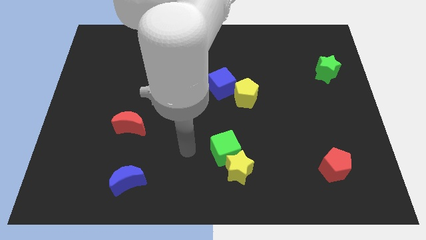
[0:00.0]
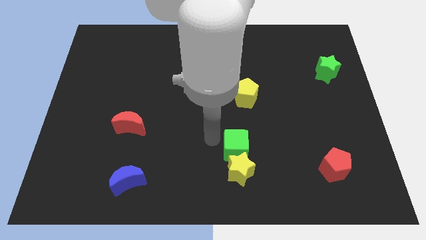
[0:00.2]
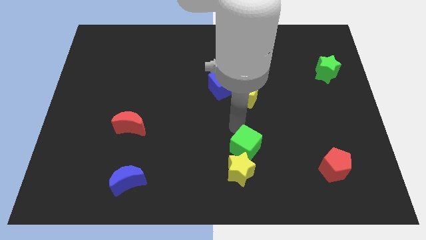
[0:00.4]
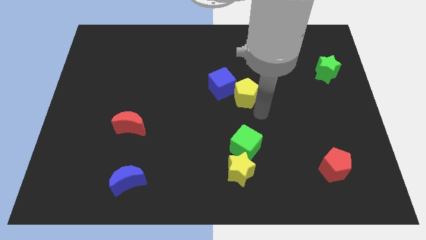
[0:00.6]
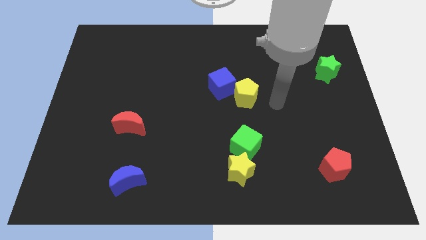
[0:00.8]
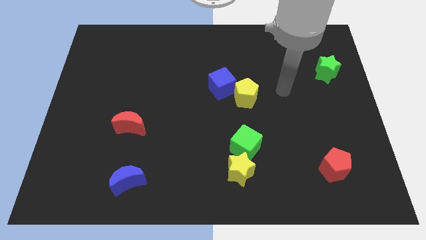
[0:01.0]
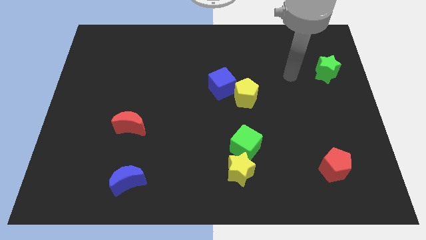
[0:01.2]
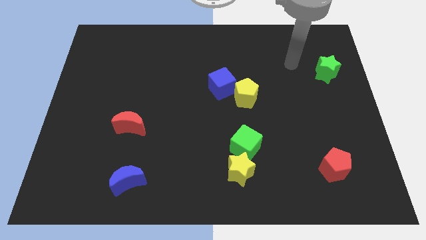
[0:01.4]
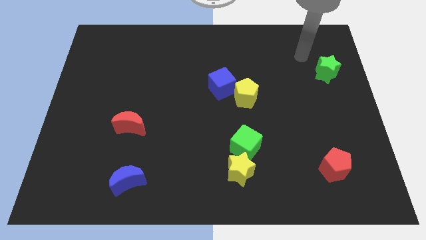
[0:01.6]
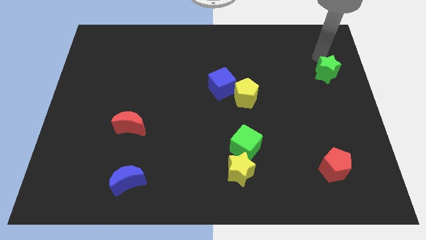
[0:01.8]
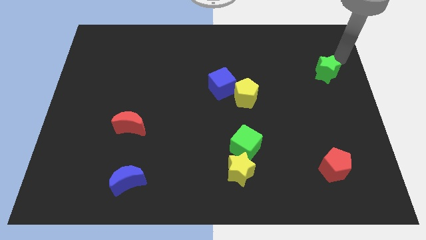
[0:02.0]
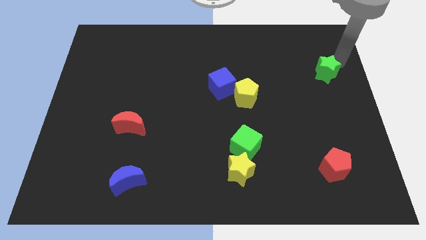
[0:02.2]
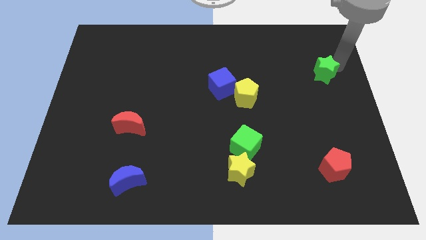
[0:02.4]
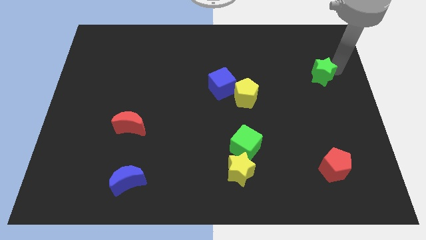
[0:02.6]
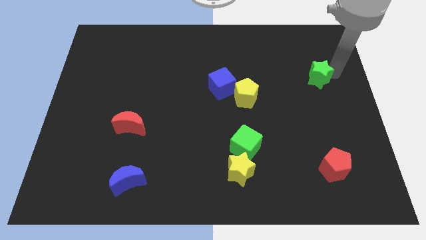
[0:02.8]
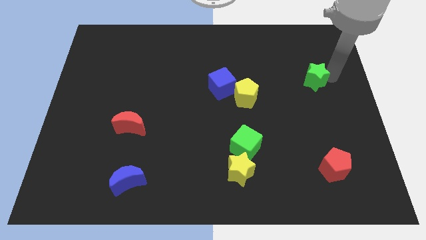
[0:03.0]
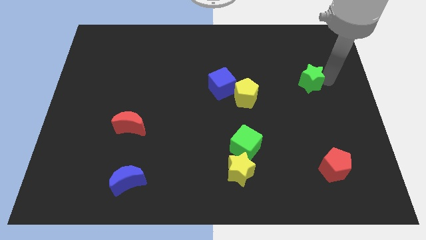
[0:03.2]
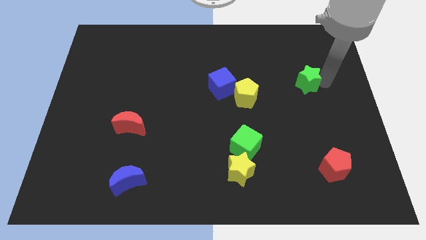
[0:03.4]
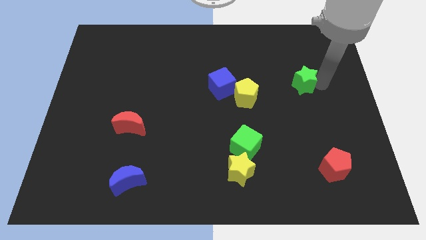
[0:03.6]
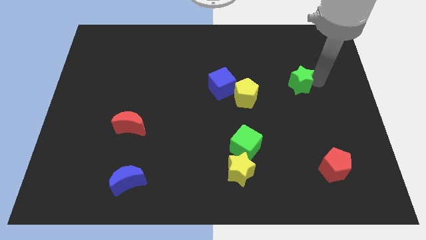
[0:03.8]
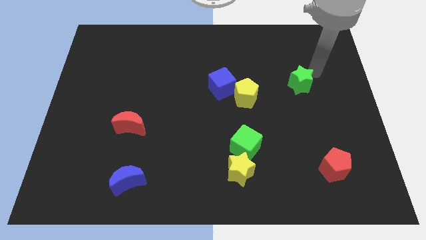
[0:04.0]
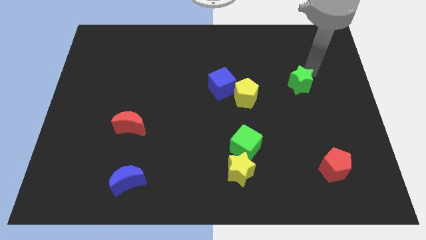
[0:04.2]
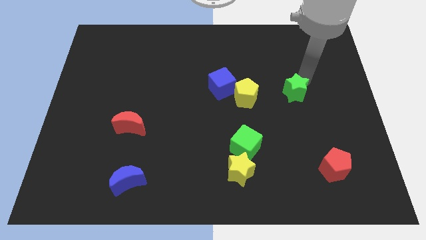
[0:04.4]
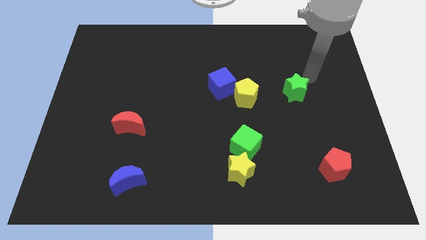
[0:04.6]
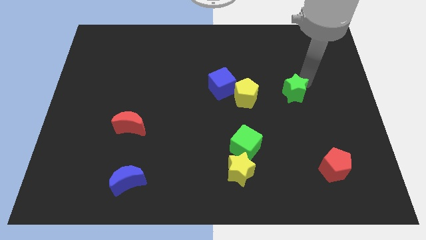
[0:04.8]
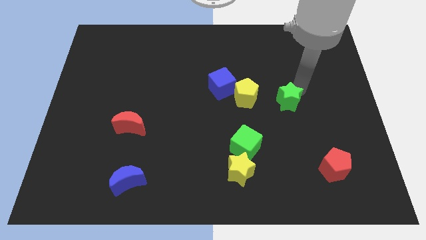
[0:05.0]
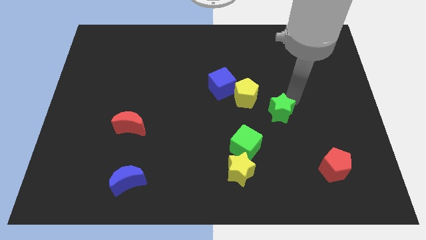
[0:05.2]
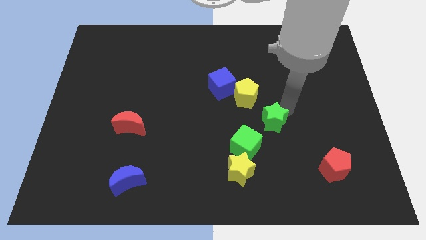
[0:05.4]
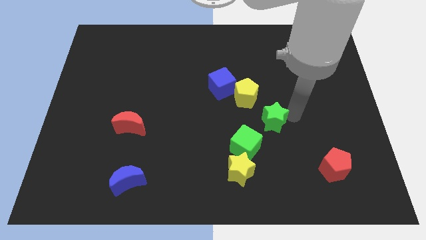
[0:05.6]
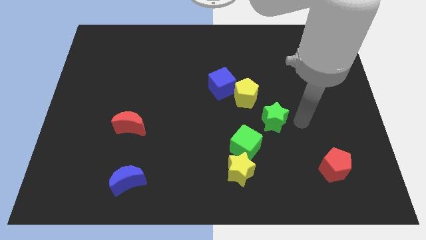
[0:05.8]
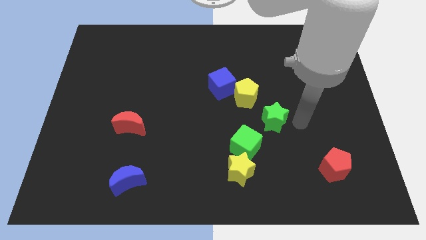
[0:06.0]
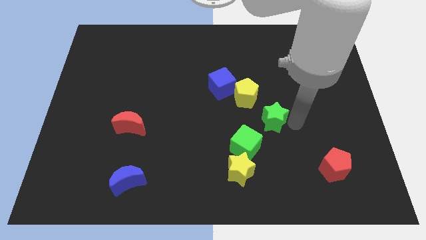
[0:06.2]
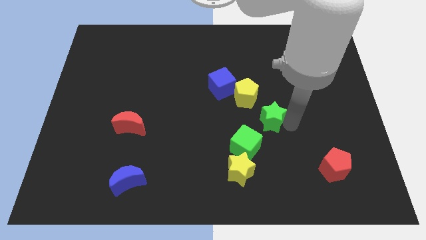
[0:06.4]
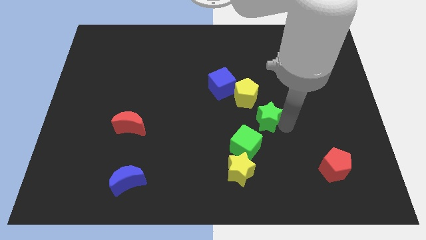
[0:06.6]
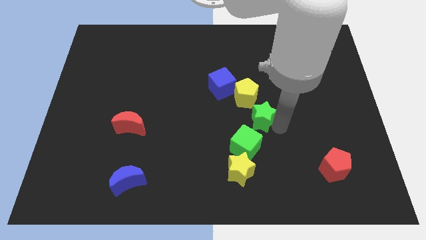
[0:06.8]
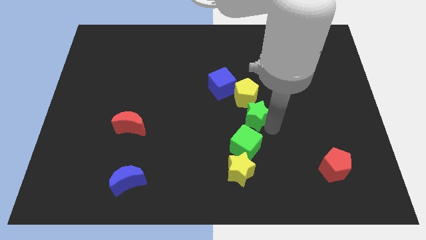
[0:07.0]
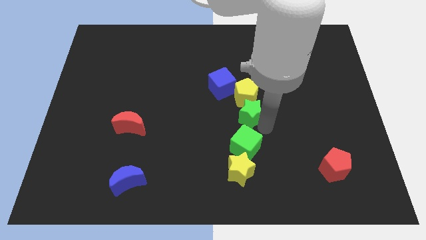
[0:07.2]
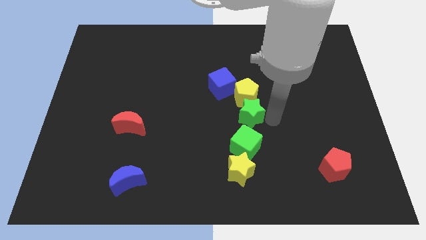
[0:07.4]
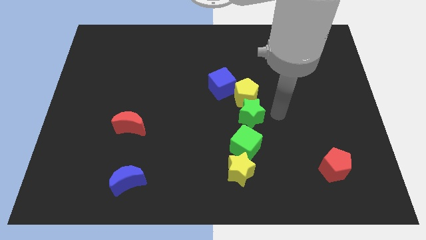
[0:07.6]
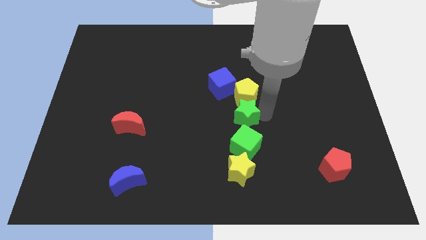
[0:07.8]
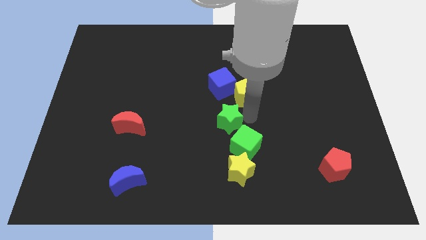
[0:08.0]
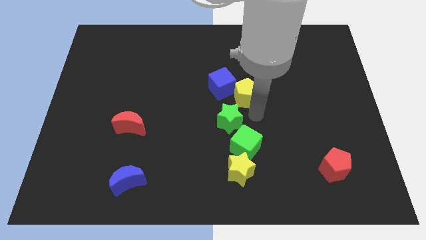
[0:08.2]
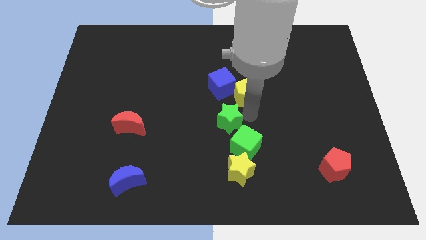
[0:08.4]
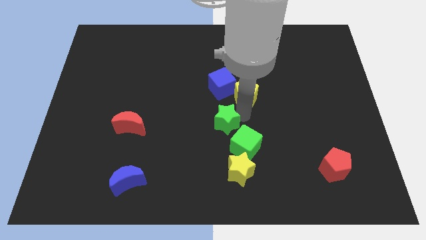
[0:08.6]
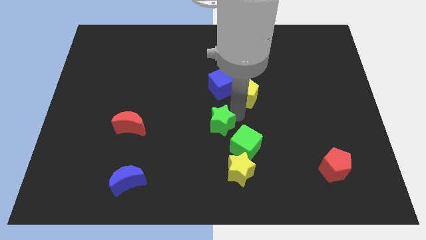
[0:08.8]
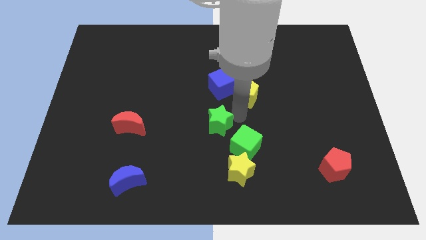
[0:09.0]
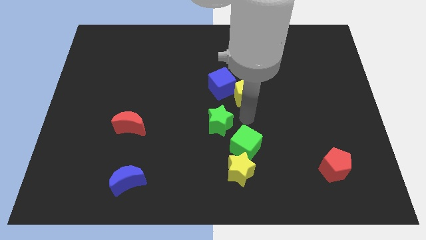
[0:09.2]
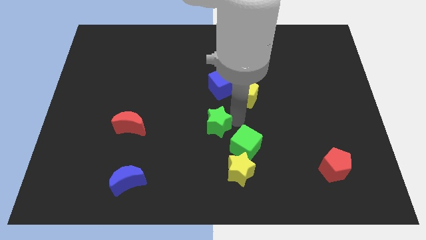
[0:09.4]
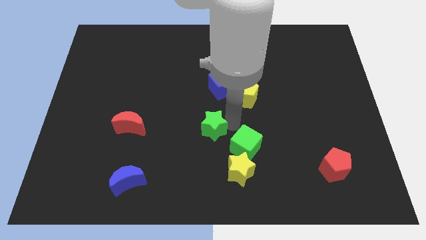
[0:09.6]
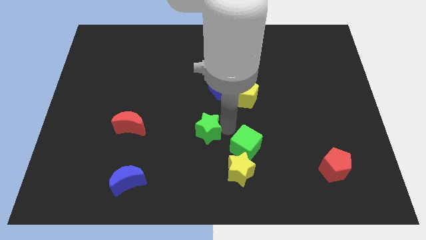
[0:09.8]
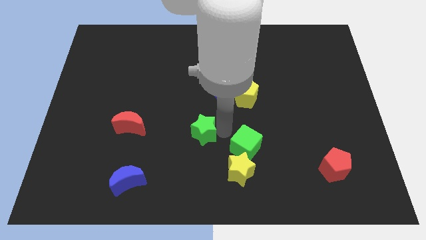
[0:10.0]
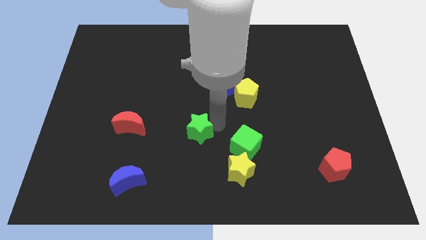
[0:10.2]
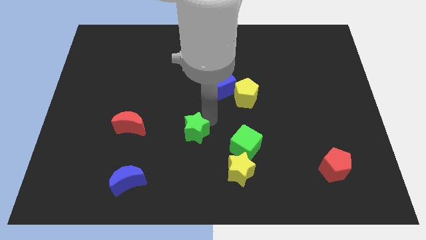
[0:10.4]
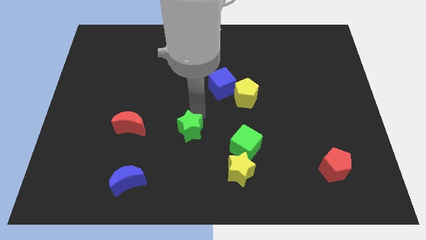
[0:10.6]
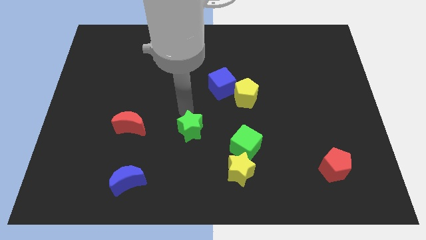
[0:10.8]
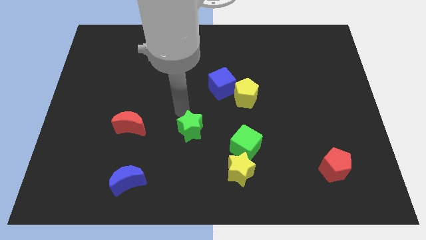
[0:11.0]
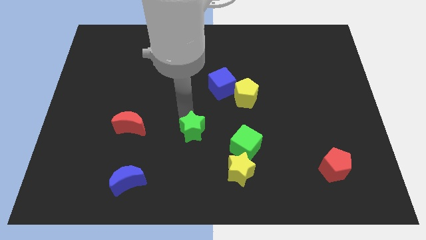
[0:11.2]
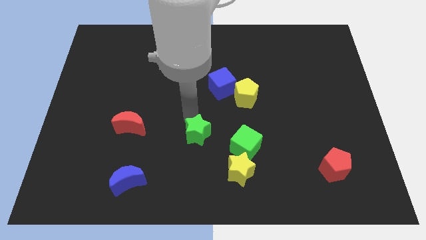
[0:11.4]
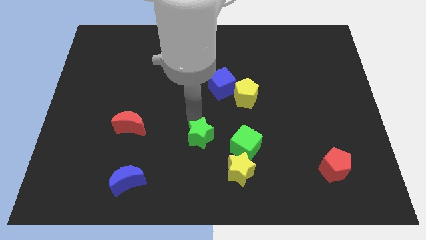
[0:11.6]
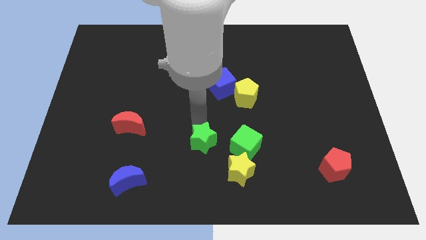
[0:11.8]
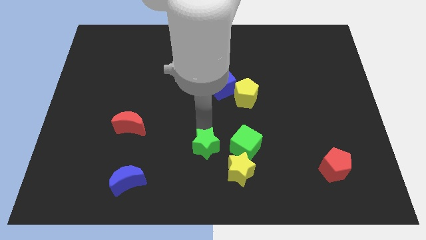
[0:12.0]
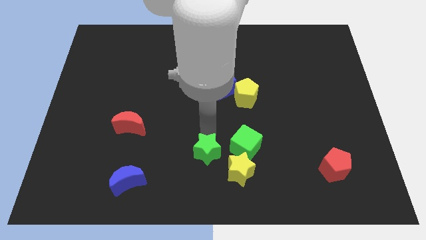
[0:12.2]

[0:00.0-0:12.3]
push the green star left of the yellow star

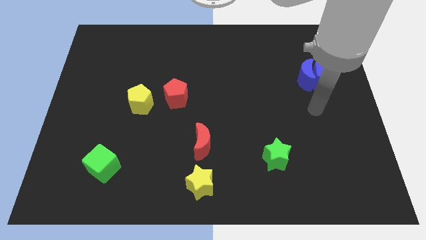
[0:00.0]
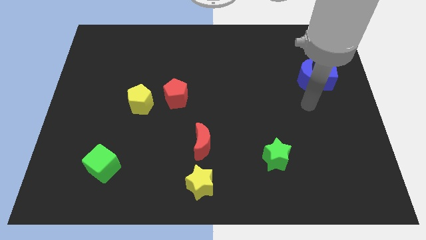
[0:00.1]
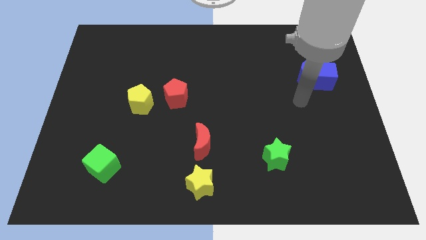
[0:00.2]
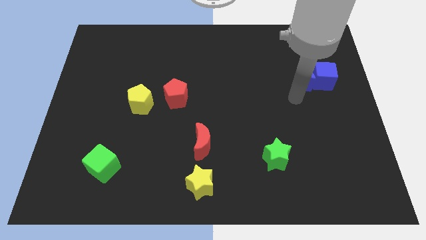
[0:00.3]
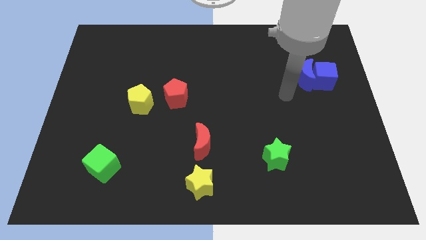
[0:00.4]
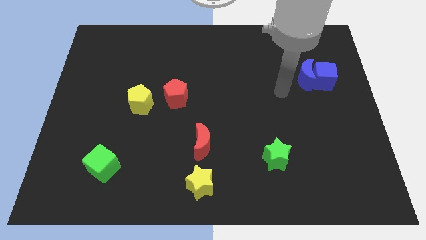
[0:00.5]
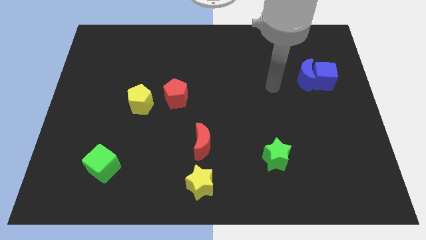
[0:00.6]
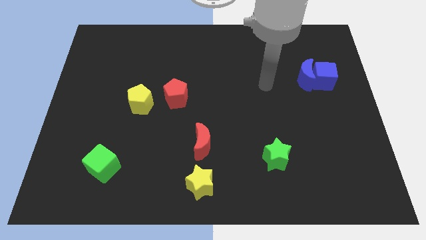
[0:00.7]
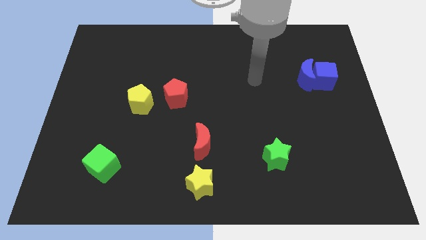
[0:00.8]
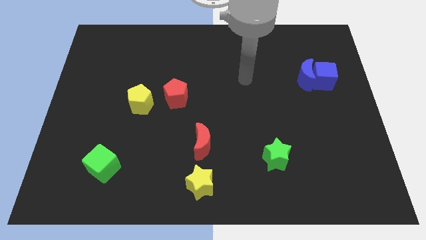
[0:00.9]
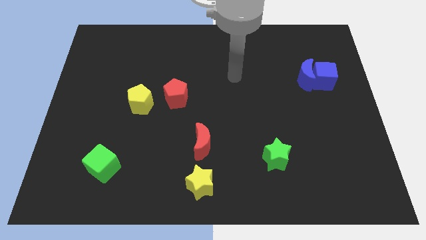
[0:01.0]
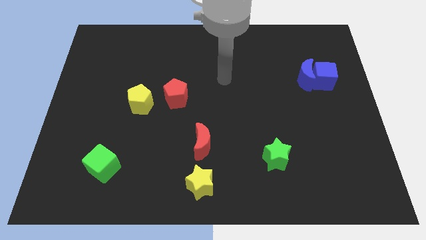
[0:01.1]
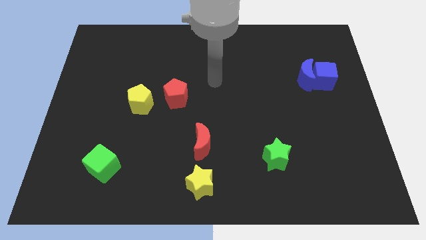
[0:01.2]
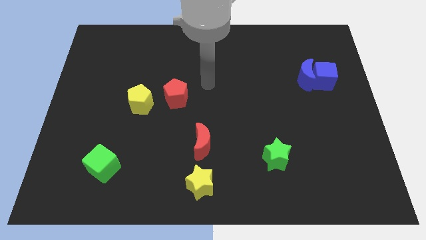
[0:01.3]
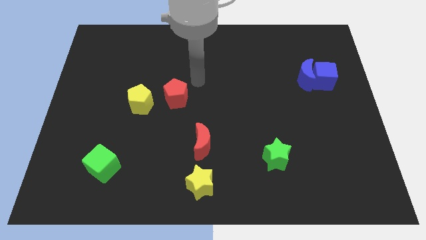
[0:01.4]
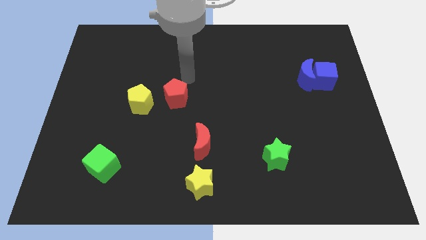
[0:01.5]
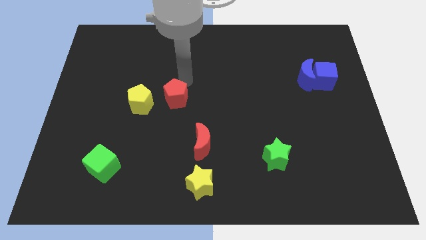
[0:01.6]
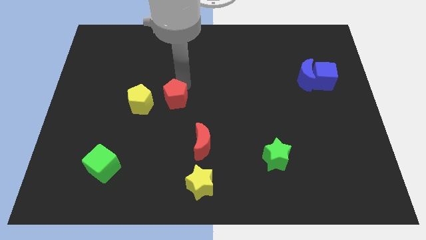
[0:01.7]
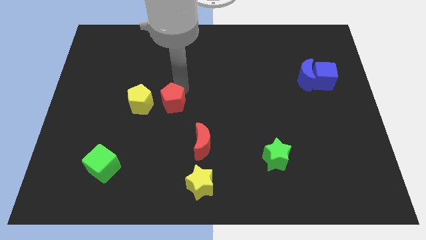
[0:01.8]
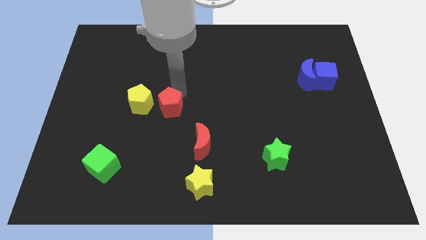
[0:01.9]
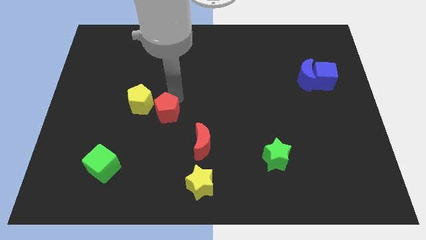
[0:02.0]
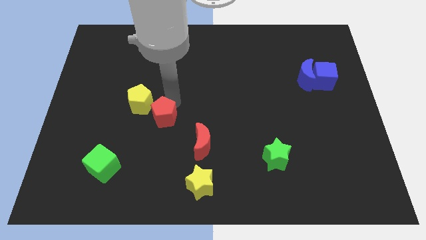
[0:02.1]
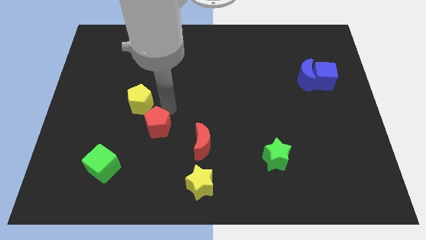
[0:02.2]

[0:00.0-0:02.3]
move the red pentagon to the left side of the red moon
